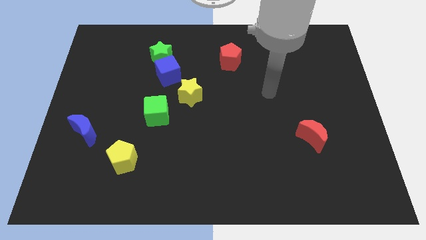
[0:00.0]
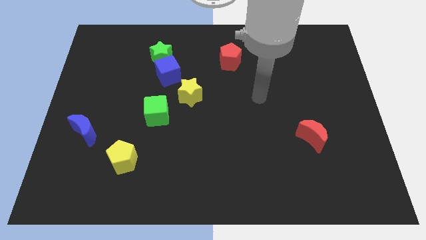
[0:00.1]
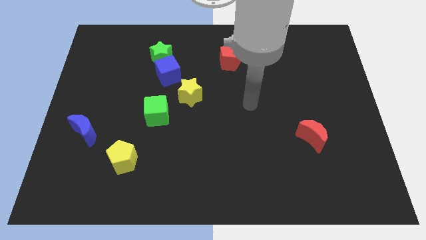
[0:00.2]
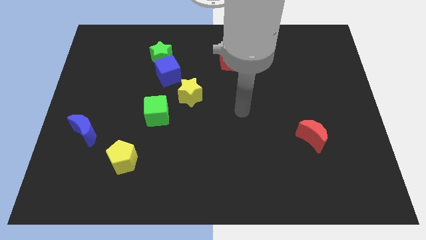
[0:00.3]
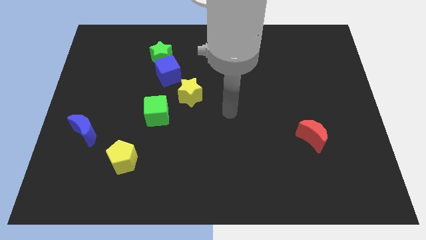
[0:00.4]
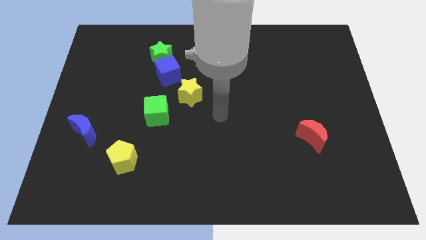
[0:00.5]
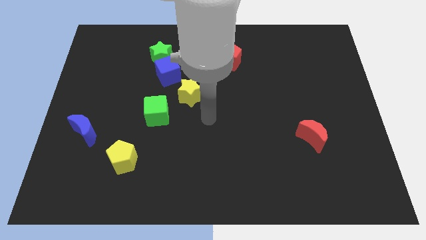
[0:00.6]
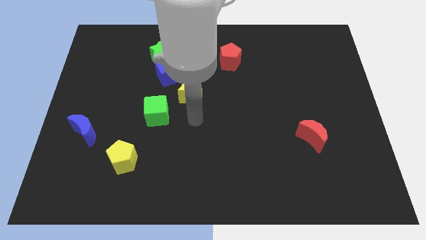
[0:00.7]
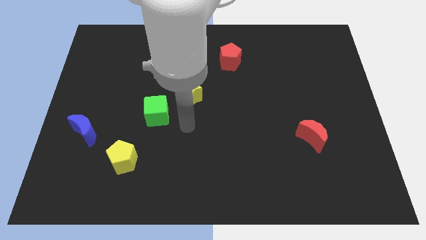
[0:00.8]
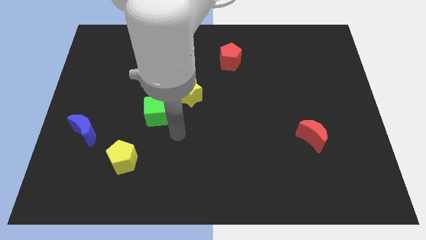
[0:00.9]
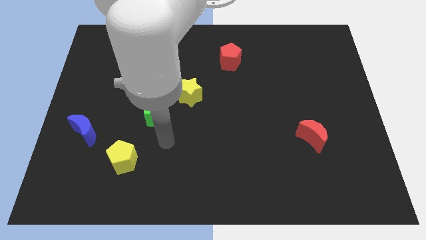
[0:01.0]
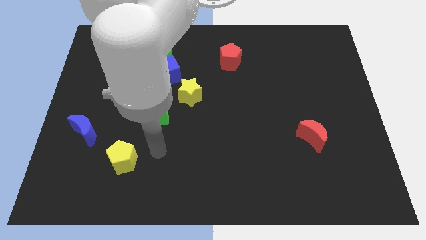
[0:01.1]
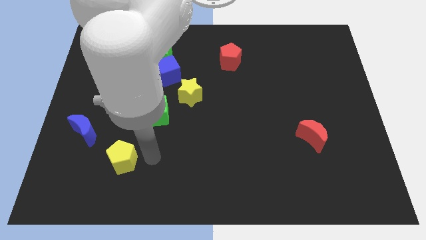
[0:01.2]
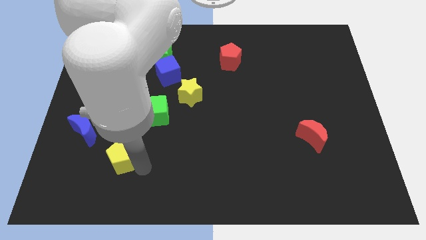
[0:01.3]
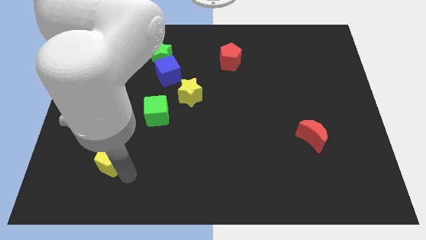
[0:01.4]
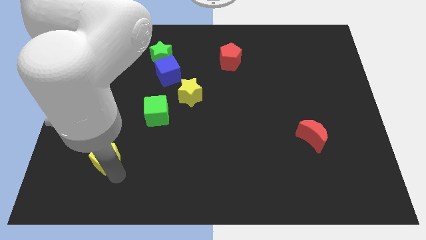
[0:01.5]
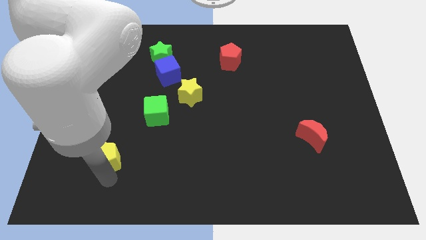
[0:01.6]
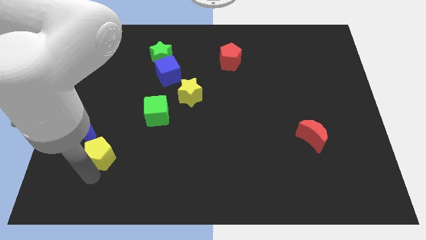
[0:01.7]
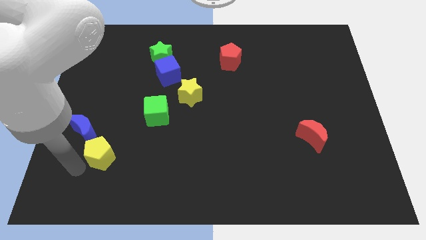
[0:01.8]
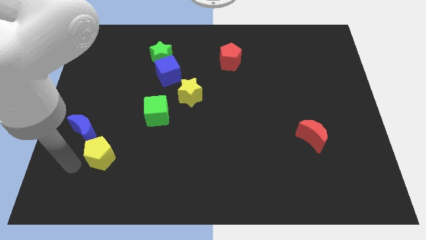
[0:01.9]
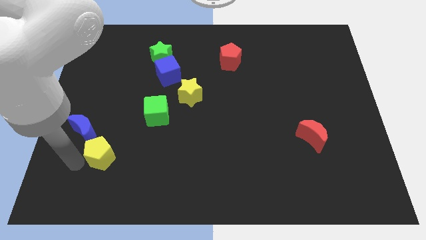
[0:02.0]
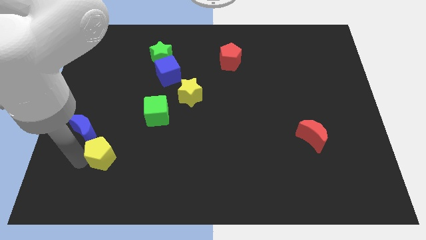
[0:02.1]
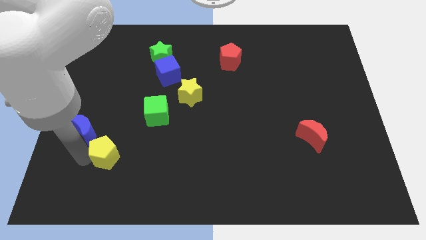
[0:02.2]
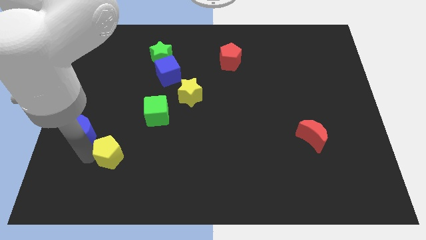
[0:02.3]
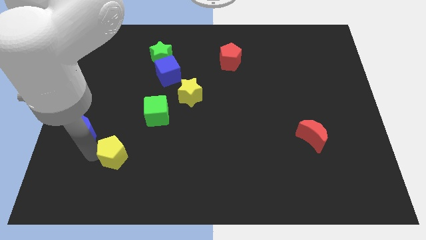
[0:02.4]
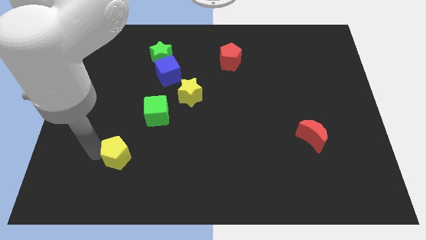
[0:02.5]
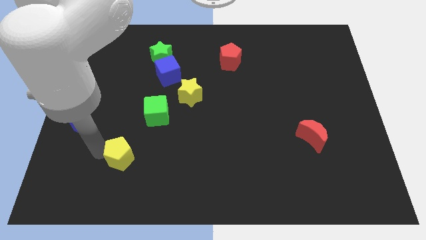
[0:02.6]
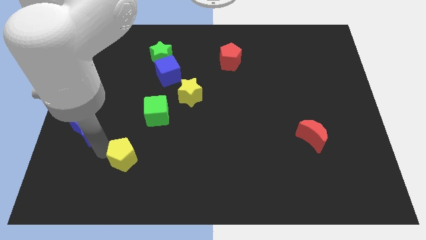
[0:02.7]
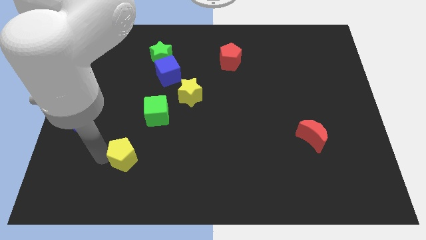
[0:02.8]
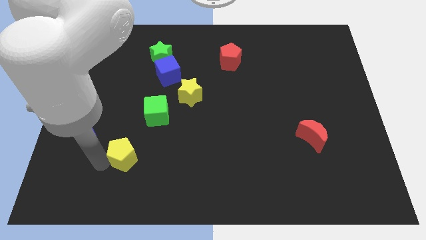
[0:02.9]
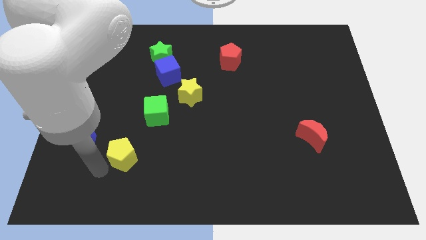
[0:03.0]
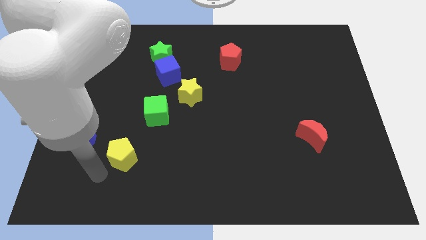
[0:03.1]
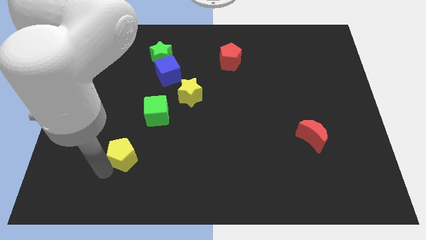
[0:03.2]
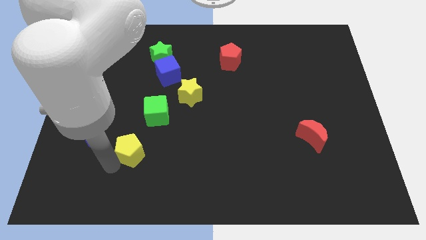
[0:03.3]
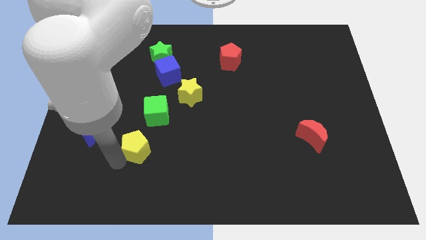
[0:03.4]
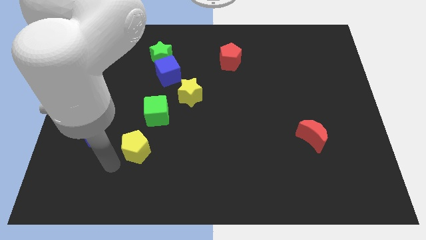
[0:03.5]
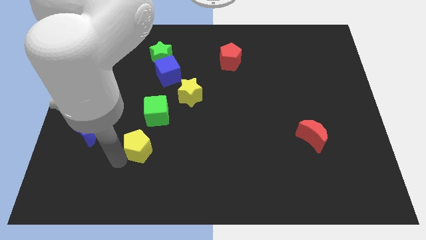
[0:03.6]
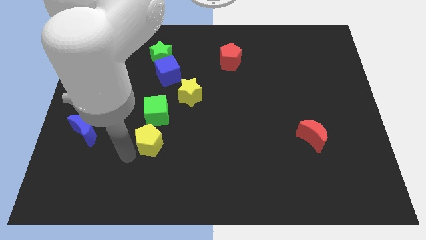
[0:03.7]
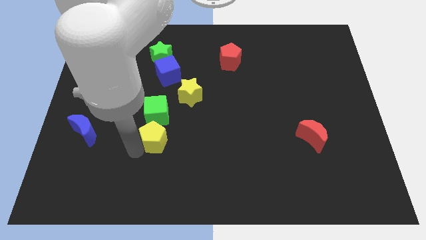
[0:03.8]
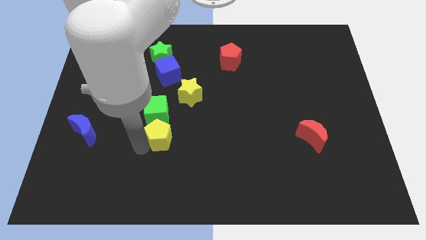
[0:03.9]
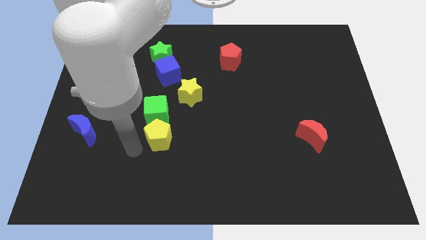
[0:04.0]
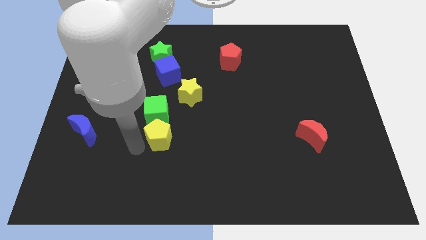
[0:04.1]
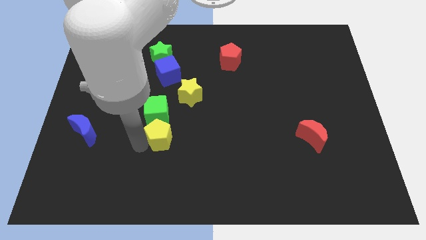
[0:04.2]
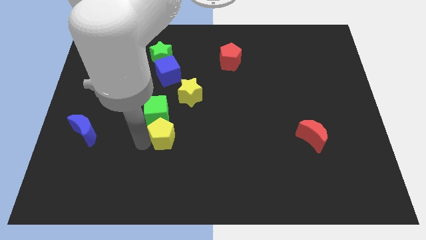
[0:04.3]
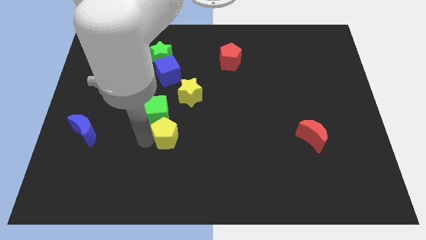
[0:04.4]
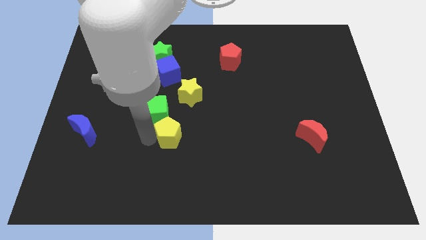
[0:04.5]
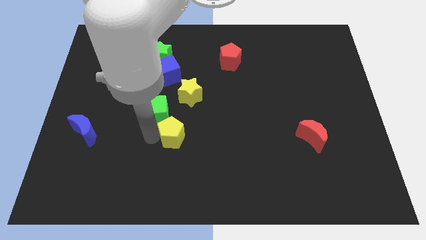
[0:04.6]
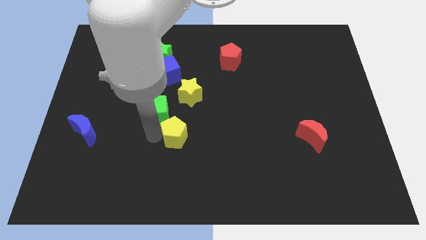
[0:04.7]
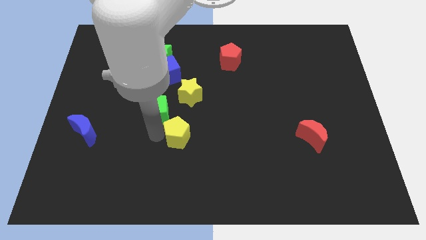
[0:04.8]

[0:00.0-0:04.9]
push the yellow pentagon to the middle of the board
